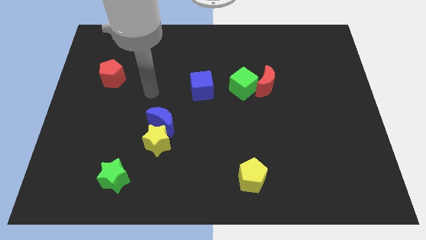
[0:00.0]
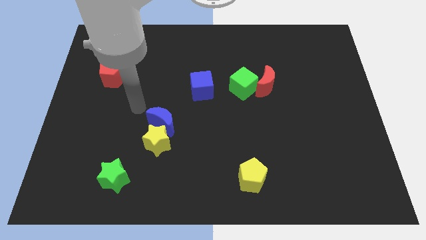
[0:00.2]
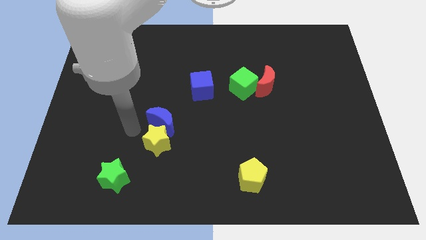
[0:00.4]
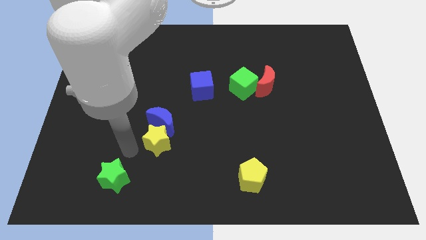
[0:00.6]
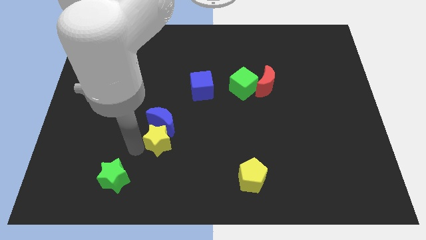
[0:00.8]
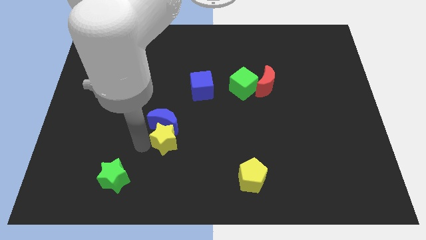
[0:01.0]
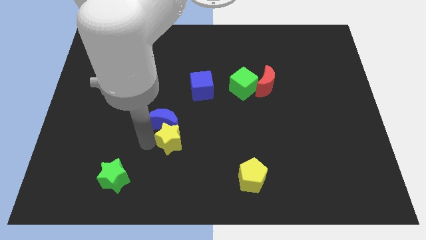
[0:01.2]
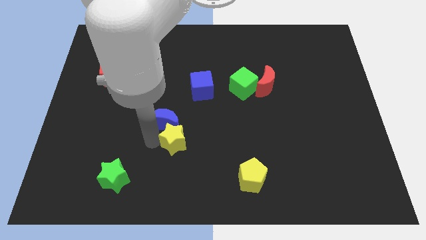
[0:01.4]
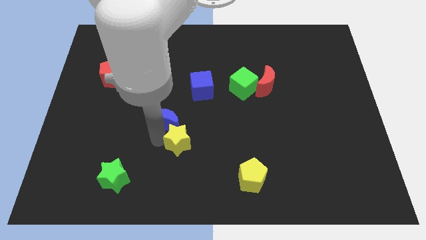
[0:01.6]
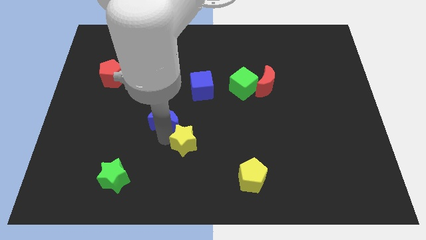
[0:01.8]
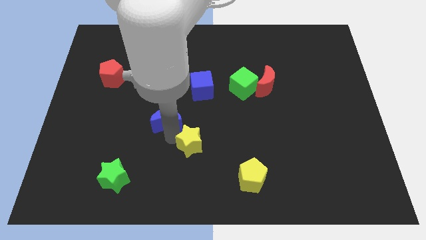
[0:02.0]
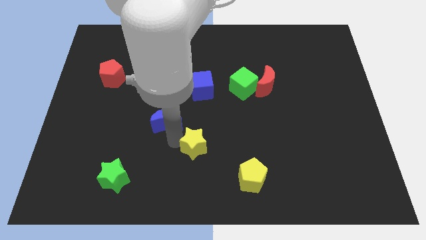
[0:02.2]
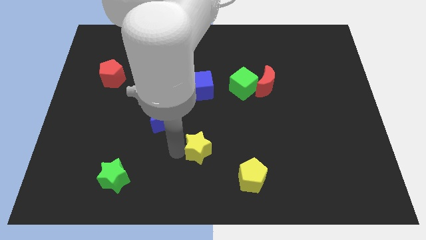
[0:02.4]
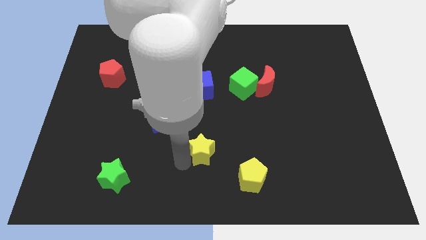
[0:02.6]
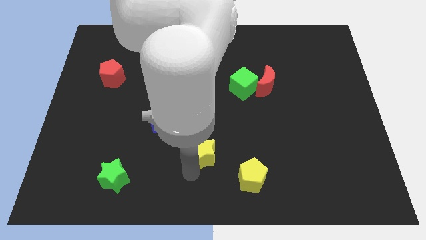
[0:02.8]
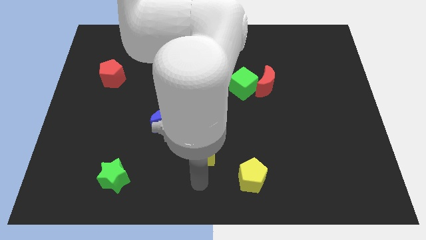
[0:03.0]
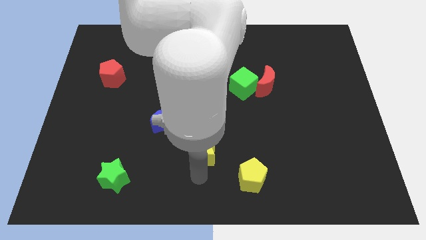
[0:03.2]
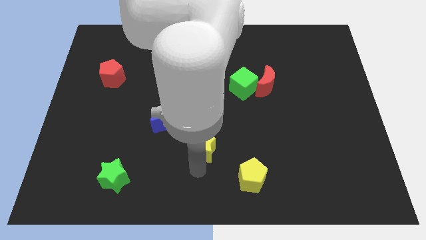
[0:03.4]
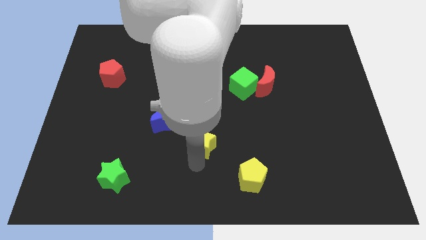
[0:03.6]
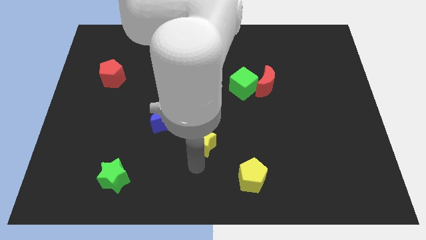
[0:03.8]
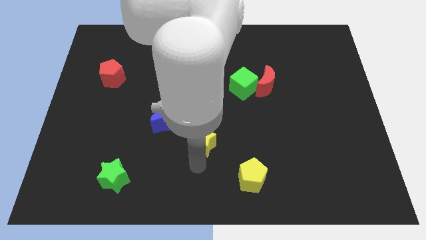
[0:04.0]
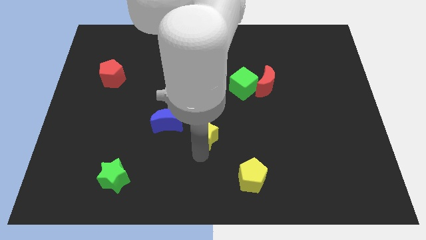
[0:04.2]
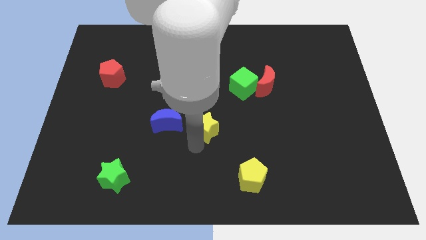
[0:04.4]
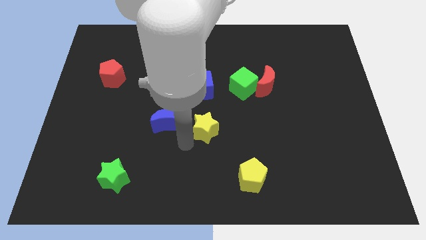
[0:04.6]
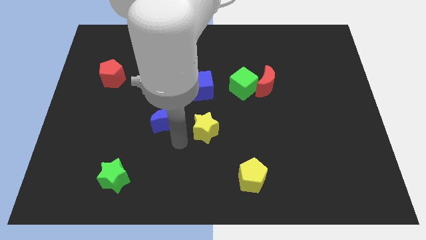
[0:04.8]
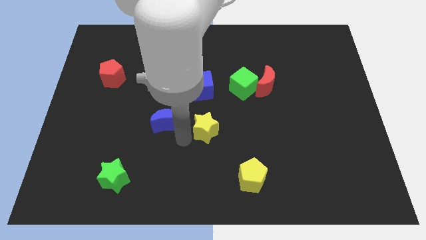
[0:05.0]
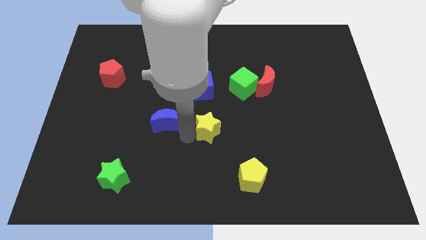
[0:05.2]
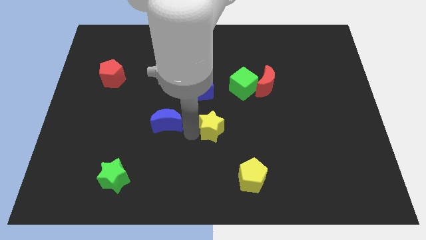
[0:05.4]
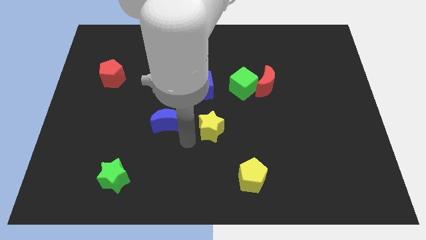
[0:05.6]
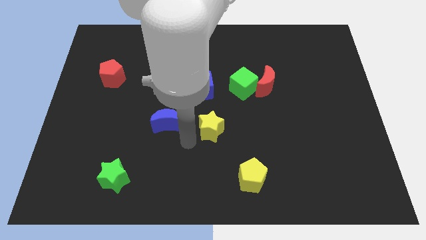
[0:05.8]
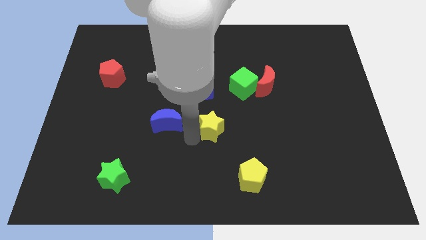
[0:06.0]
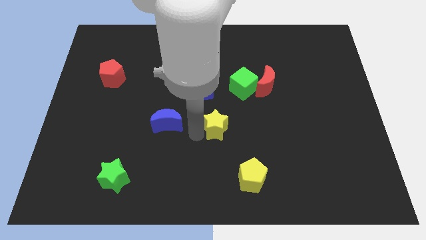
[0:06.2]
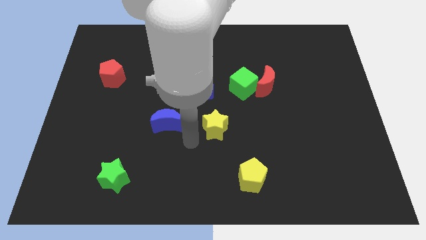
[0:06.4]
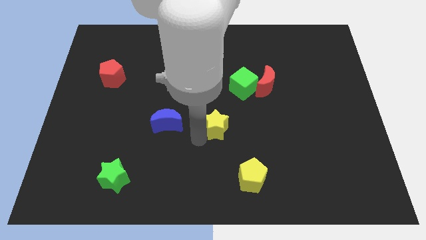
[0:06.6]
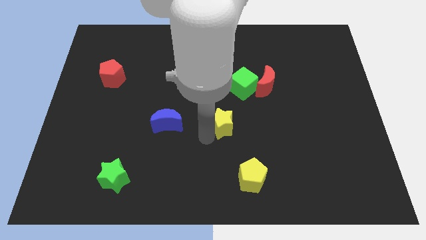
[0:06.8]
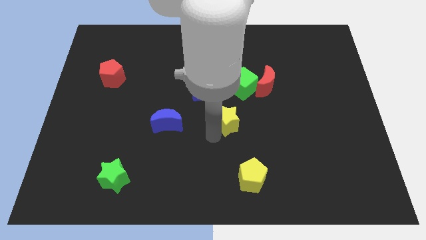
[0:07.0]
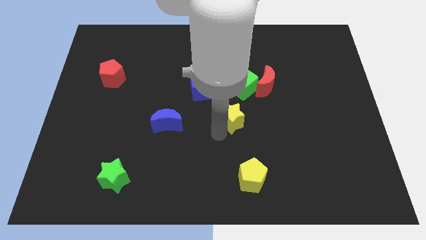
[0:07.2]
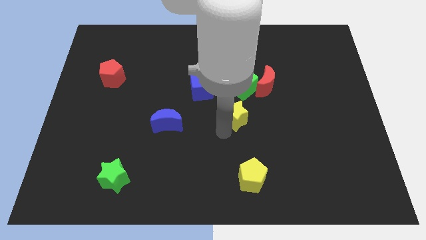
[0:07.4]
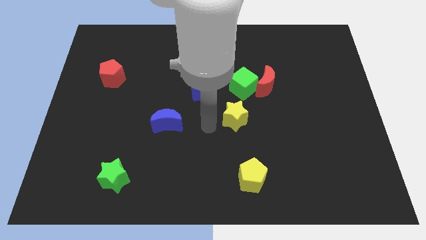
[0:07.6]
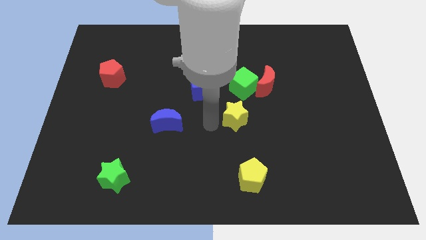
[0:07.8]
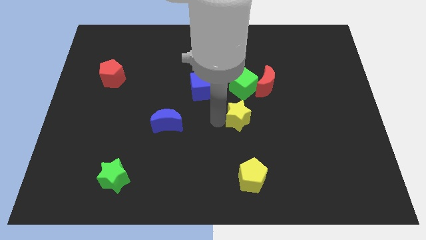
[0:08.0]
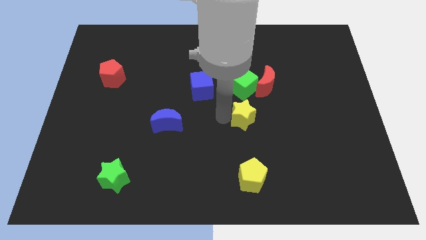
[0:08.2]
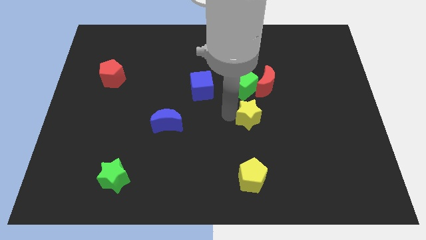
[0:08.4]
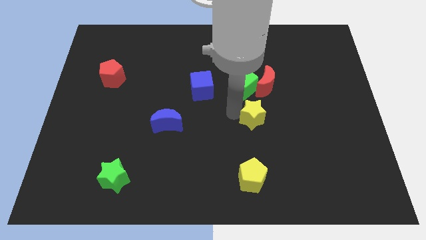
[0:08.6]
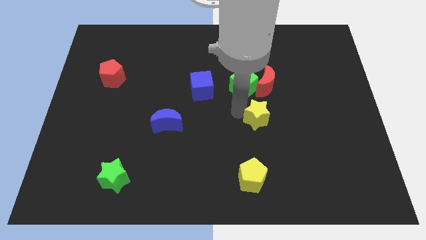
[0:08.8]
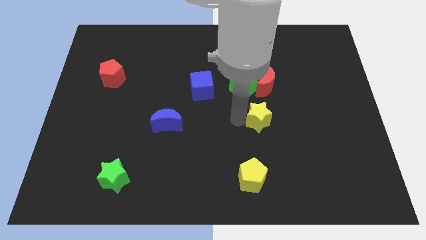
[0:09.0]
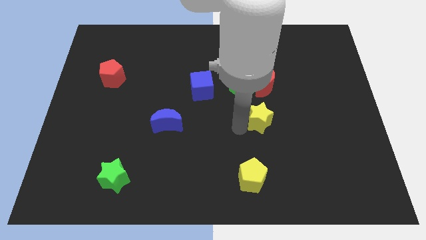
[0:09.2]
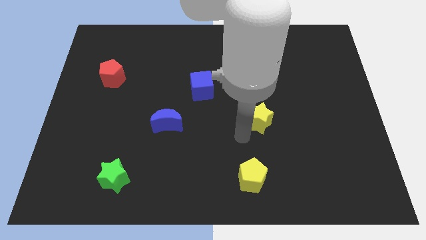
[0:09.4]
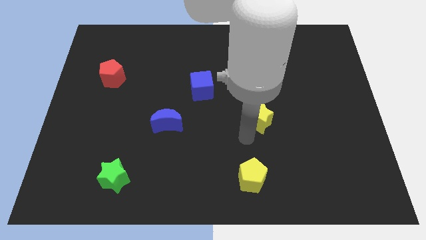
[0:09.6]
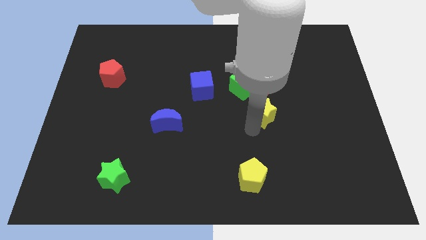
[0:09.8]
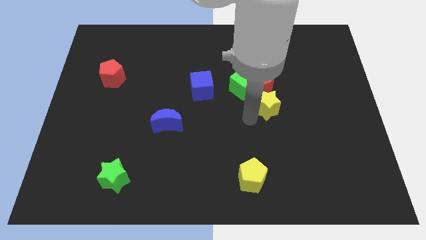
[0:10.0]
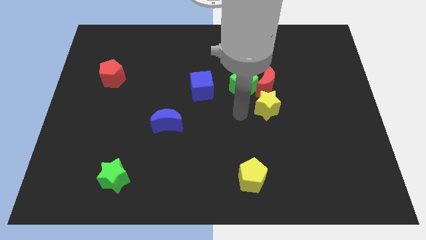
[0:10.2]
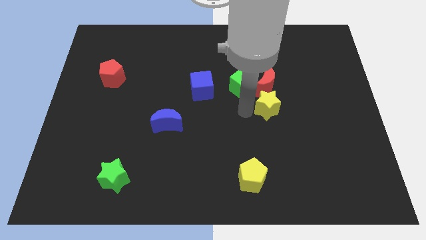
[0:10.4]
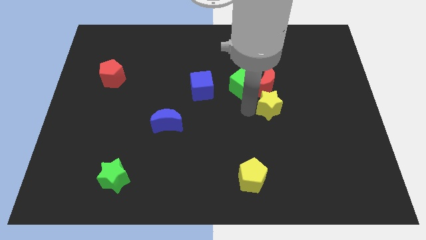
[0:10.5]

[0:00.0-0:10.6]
move the yellow star to the bottom right side of the red moon
